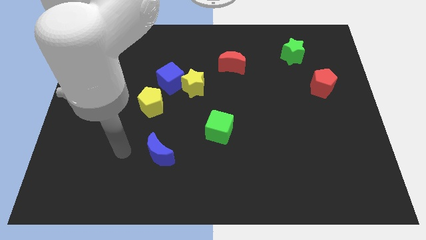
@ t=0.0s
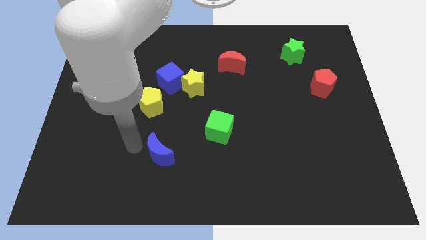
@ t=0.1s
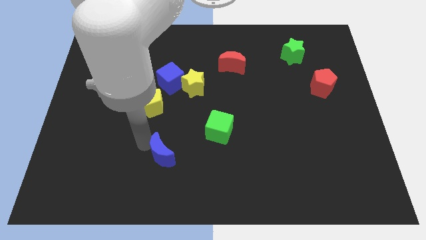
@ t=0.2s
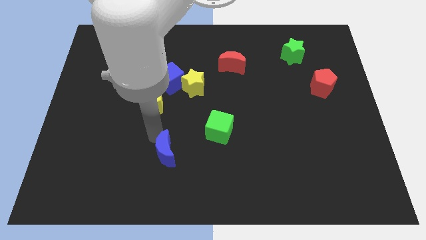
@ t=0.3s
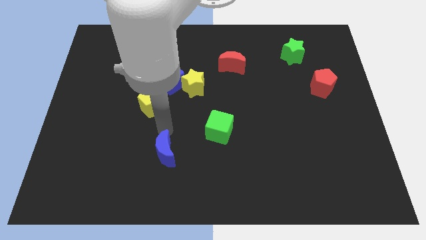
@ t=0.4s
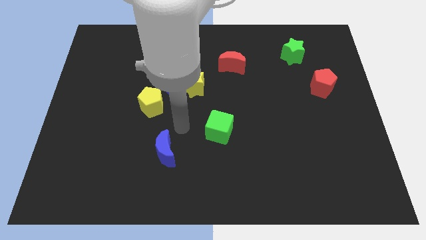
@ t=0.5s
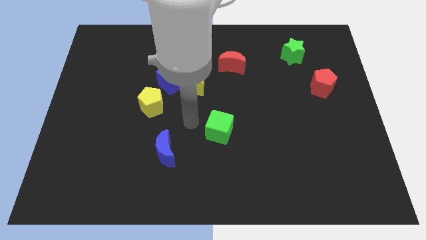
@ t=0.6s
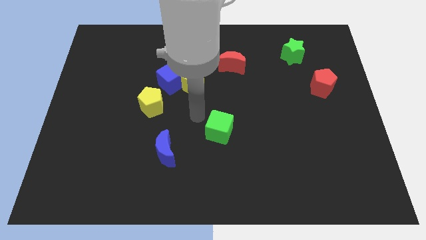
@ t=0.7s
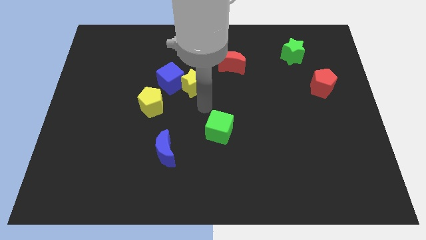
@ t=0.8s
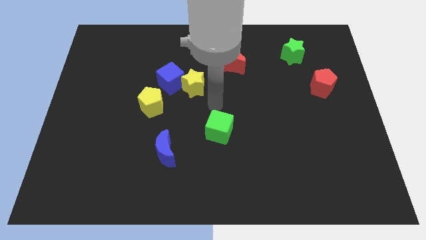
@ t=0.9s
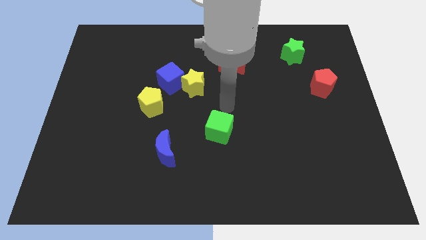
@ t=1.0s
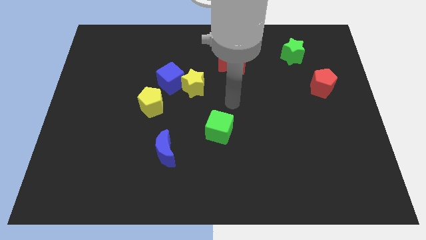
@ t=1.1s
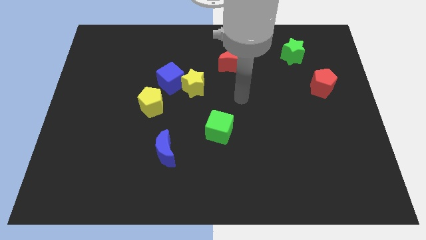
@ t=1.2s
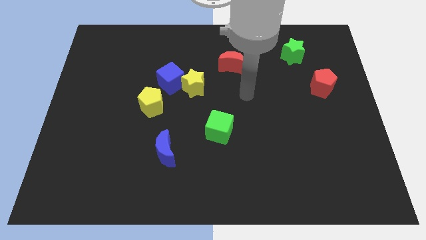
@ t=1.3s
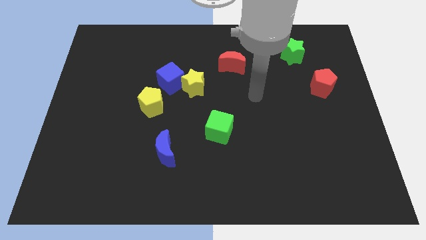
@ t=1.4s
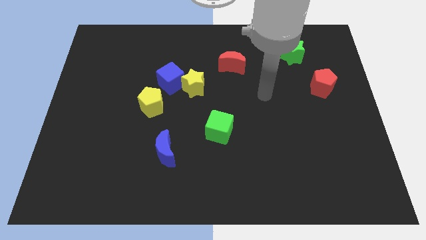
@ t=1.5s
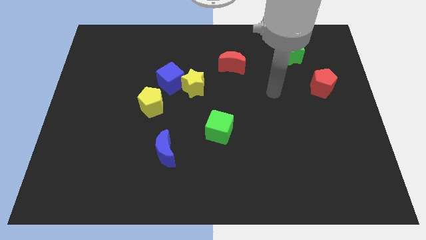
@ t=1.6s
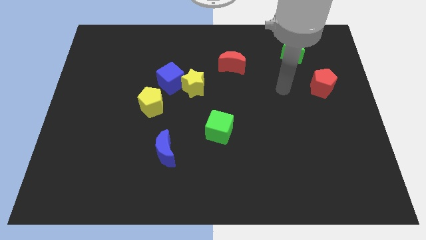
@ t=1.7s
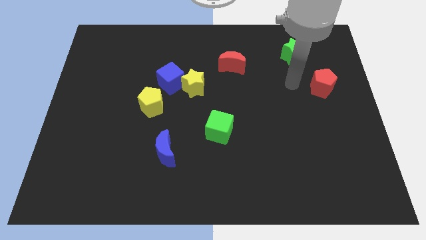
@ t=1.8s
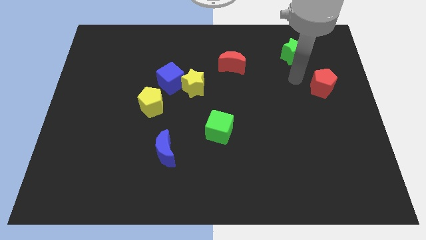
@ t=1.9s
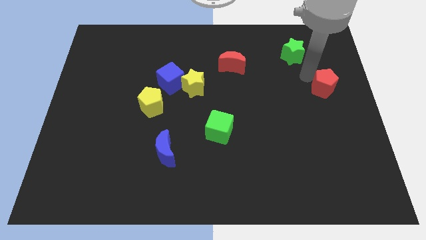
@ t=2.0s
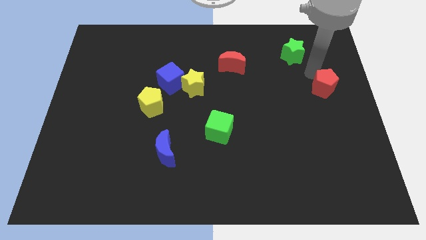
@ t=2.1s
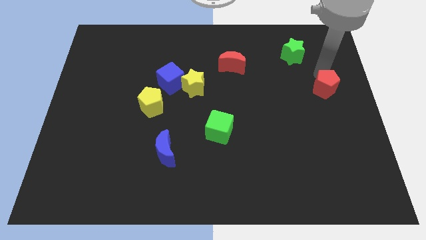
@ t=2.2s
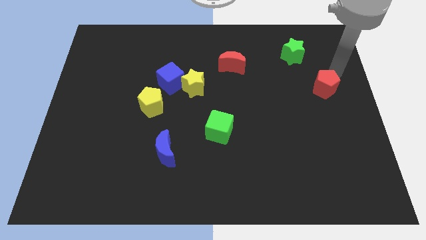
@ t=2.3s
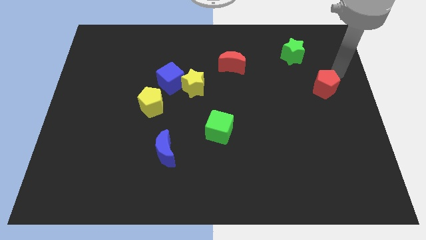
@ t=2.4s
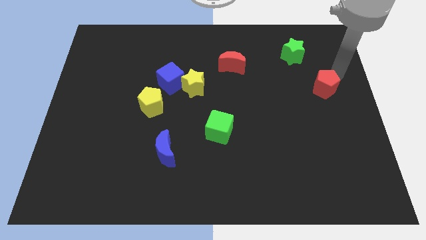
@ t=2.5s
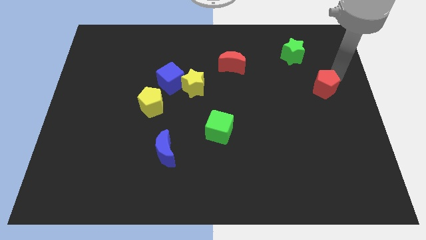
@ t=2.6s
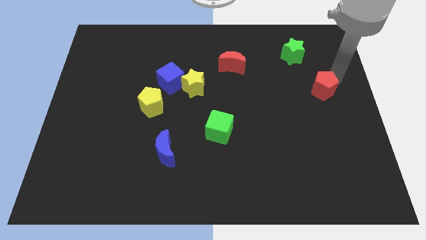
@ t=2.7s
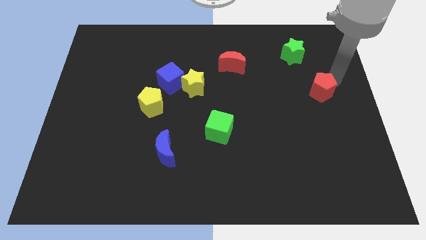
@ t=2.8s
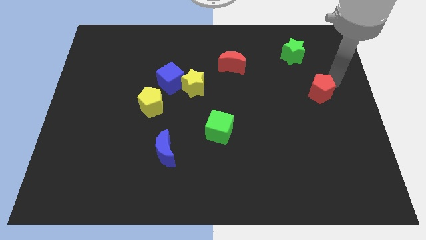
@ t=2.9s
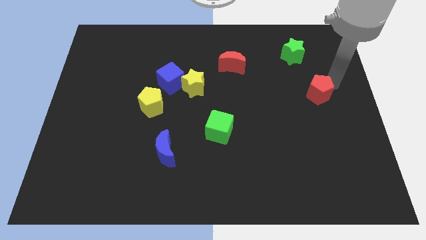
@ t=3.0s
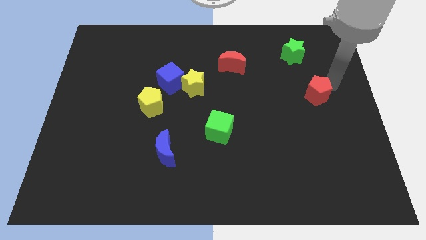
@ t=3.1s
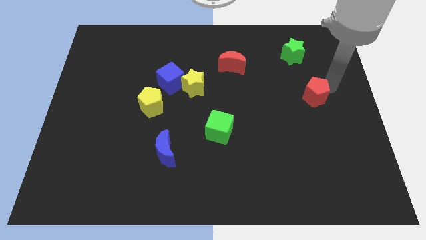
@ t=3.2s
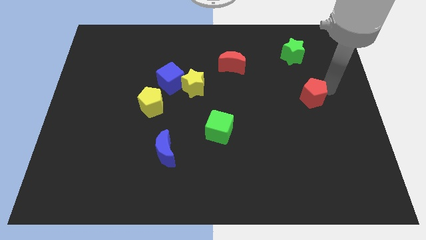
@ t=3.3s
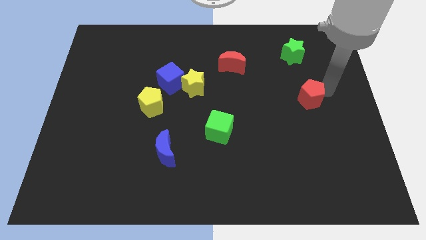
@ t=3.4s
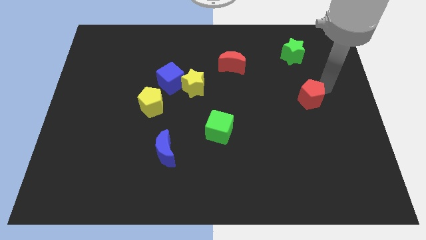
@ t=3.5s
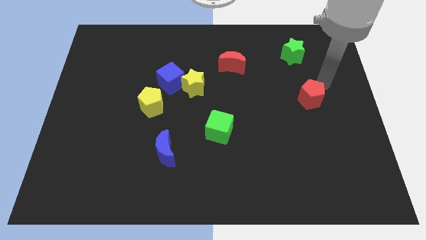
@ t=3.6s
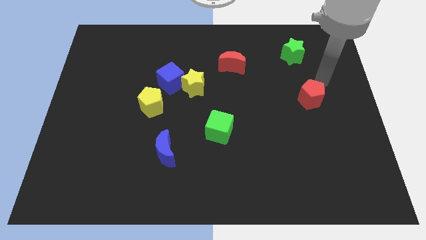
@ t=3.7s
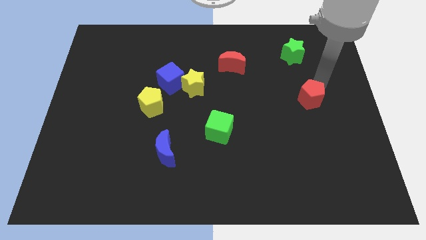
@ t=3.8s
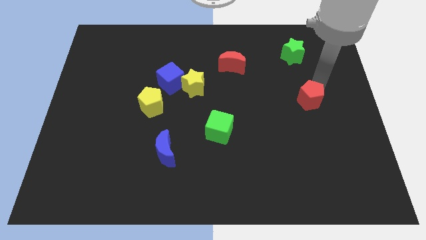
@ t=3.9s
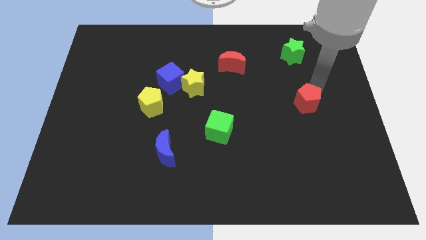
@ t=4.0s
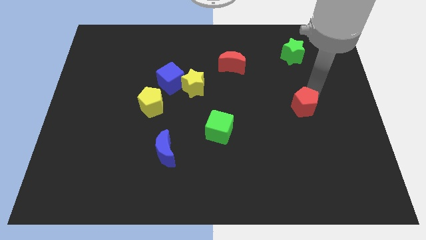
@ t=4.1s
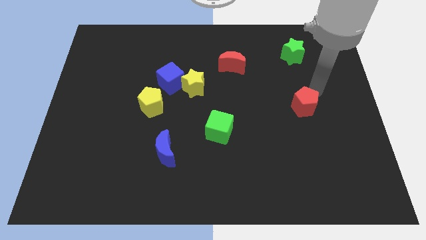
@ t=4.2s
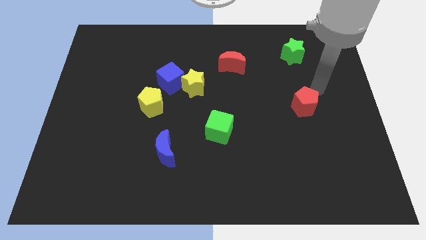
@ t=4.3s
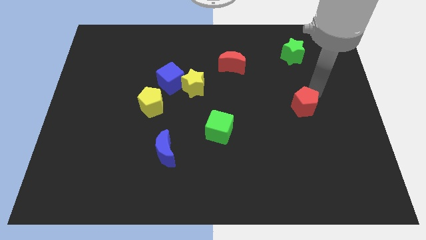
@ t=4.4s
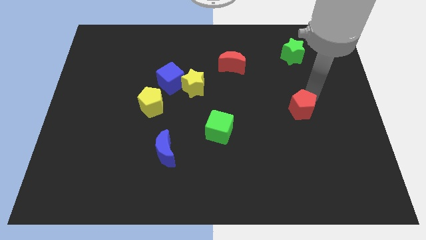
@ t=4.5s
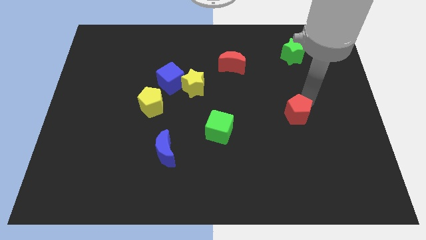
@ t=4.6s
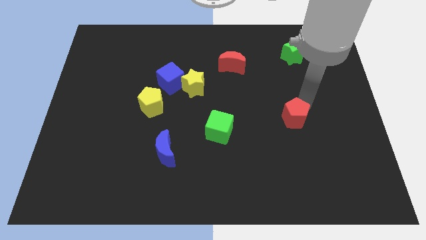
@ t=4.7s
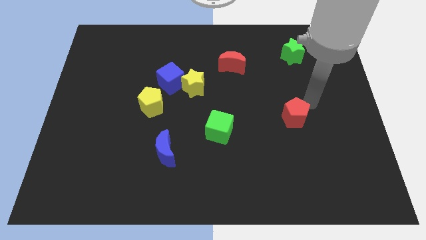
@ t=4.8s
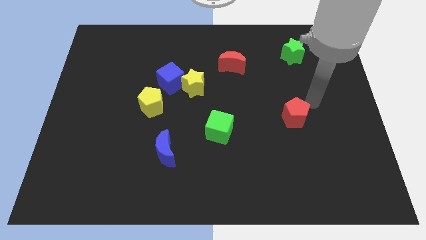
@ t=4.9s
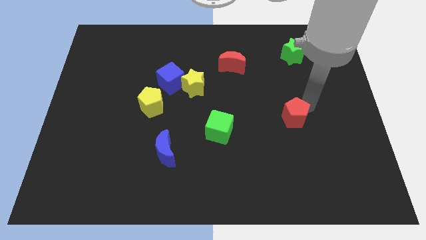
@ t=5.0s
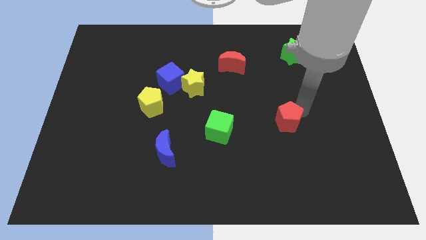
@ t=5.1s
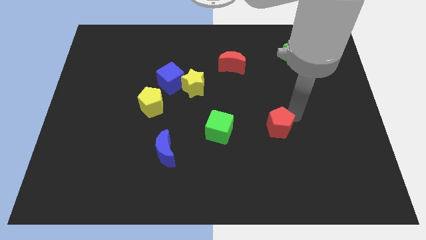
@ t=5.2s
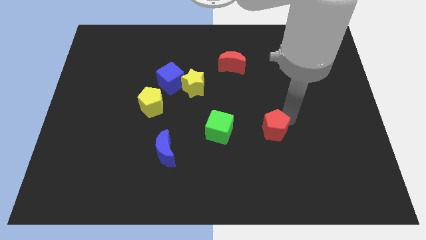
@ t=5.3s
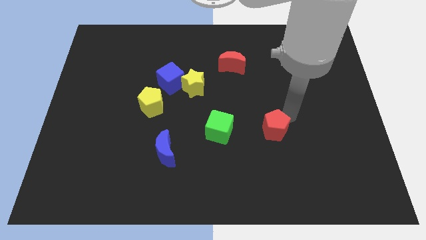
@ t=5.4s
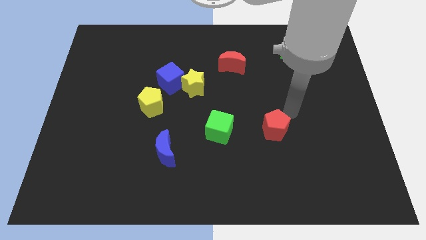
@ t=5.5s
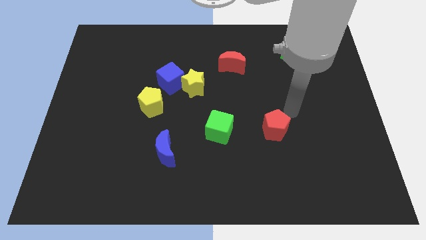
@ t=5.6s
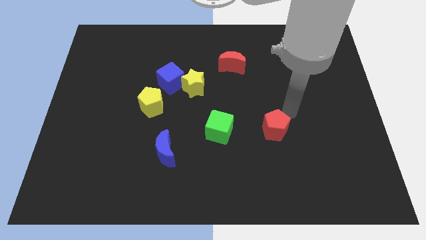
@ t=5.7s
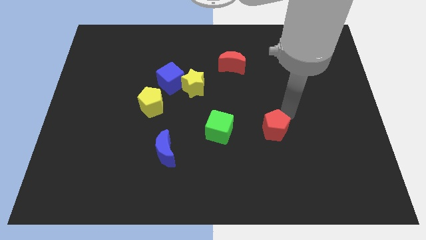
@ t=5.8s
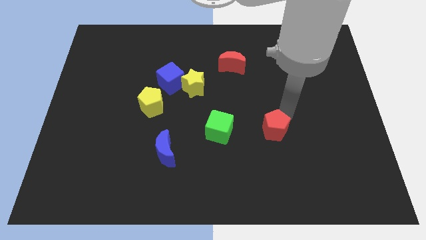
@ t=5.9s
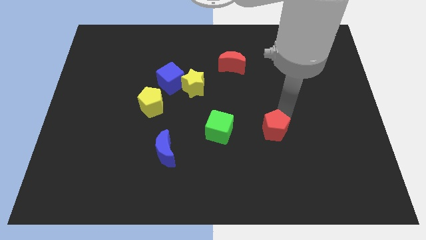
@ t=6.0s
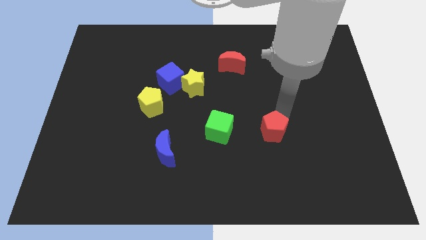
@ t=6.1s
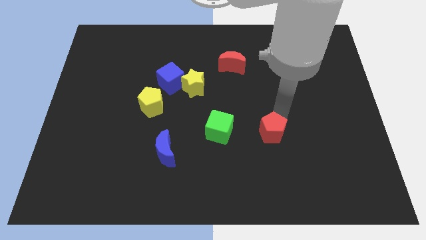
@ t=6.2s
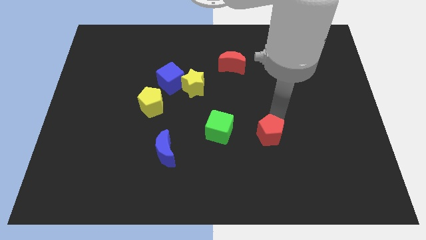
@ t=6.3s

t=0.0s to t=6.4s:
slide the red pentagon down and left diagonally

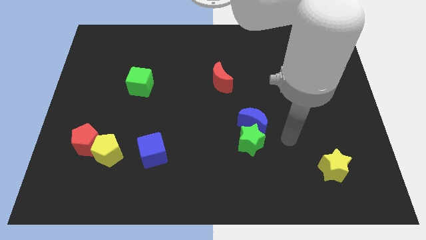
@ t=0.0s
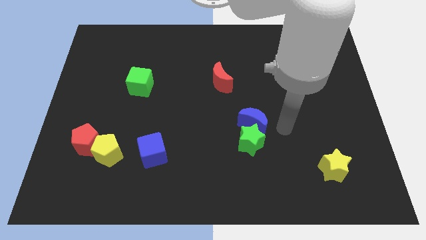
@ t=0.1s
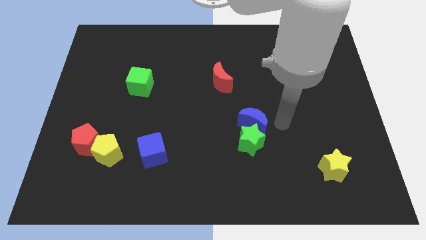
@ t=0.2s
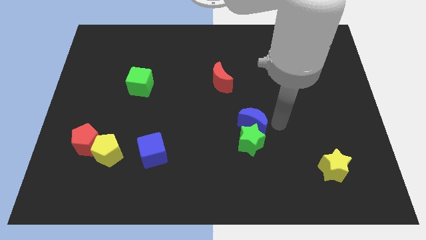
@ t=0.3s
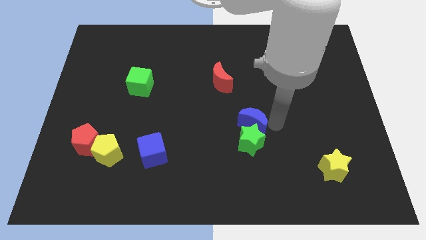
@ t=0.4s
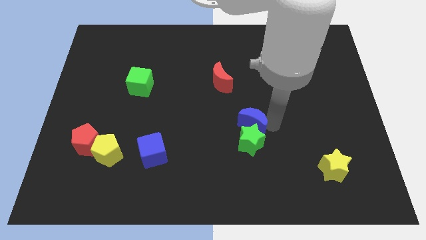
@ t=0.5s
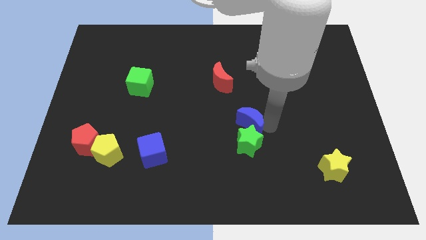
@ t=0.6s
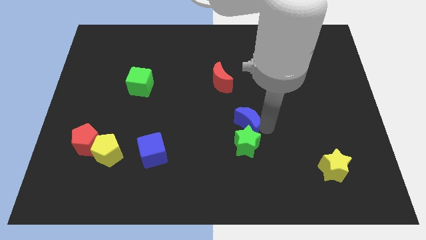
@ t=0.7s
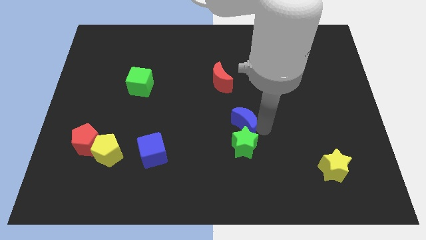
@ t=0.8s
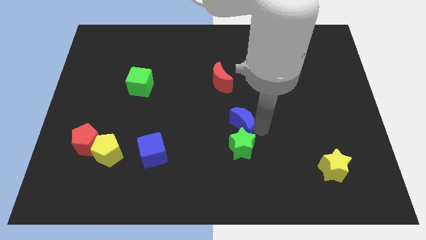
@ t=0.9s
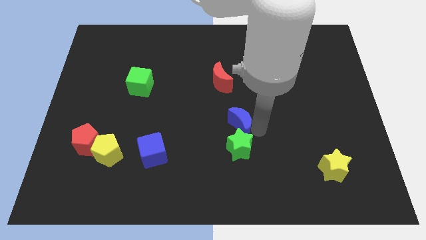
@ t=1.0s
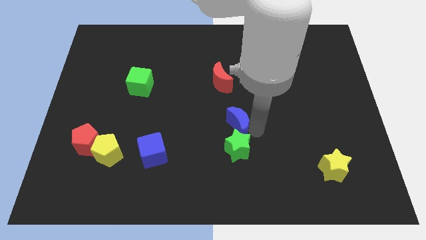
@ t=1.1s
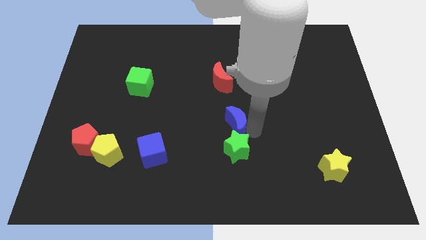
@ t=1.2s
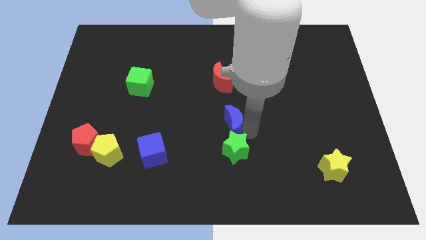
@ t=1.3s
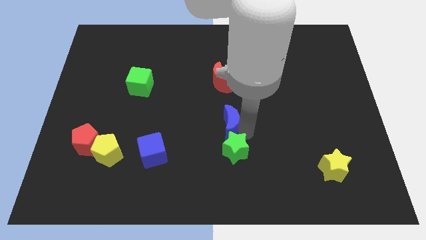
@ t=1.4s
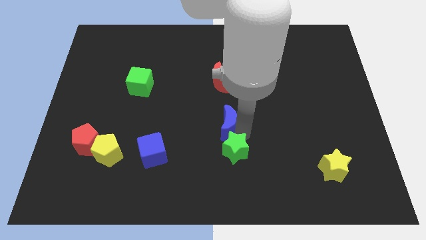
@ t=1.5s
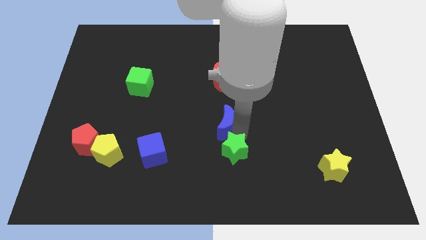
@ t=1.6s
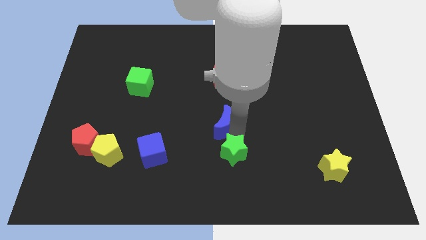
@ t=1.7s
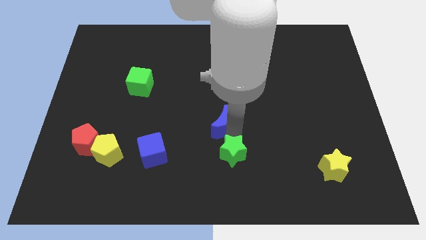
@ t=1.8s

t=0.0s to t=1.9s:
push the blue moon to the left a little
